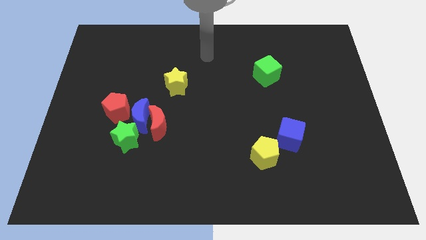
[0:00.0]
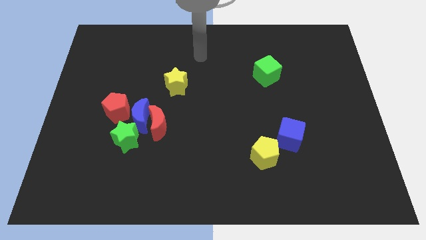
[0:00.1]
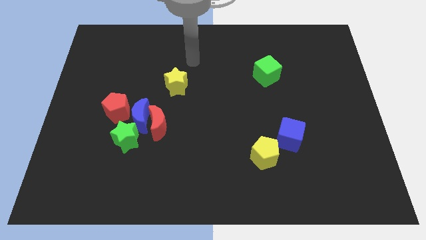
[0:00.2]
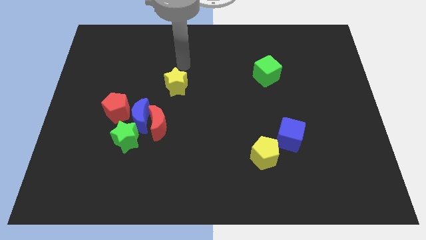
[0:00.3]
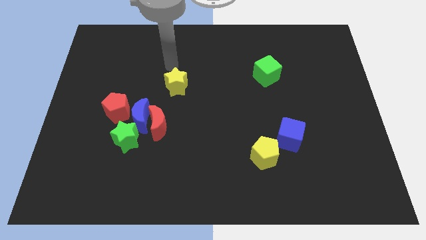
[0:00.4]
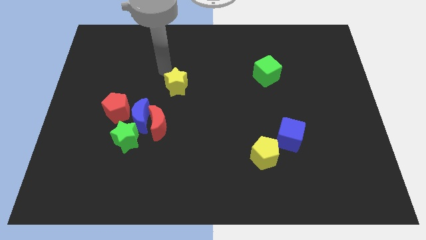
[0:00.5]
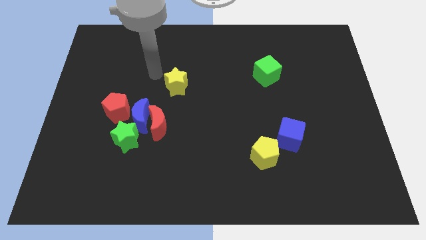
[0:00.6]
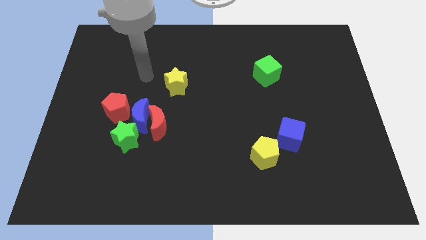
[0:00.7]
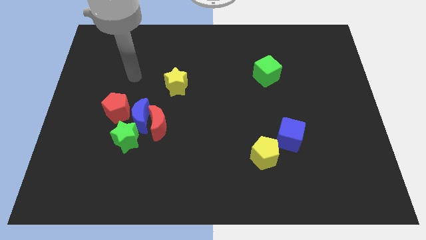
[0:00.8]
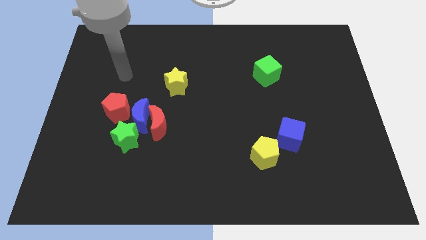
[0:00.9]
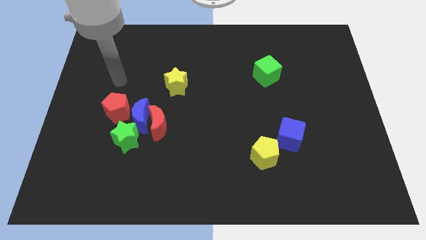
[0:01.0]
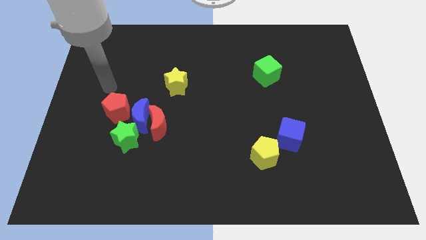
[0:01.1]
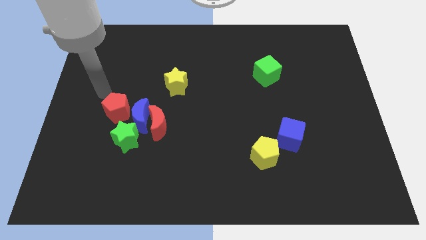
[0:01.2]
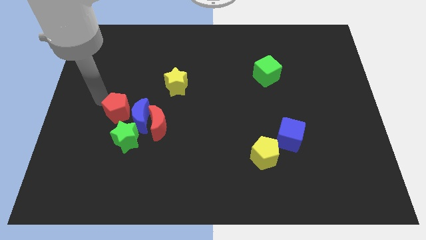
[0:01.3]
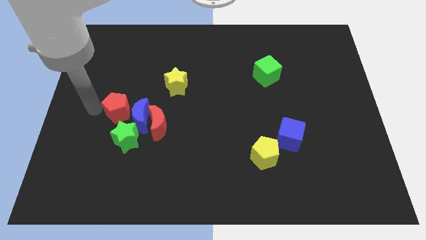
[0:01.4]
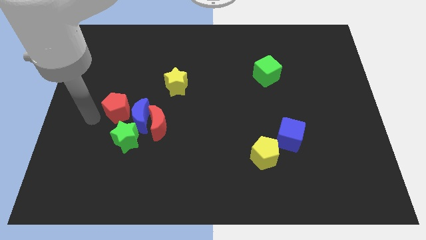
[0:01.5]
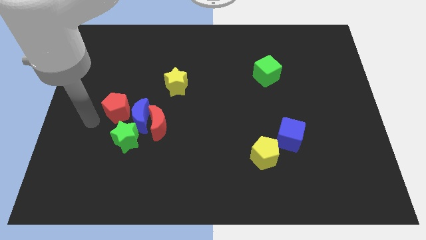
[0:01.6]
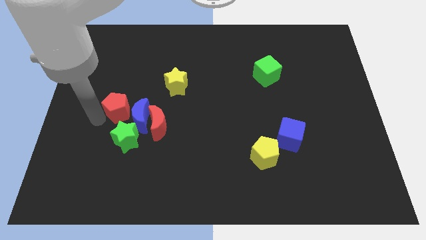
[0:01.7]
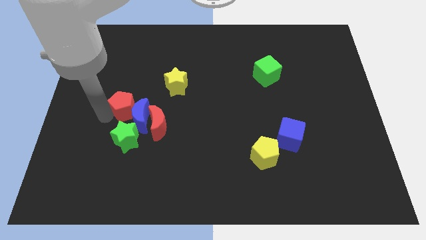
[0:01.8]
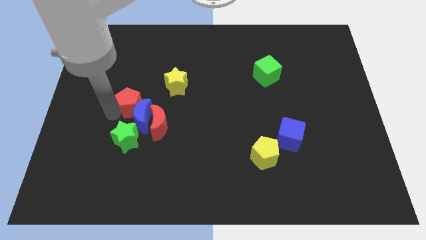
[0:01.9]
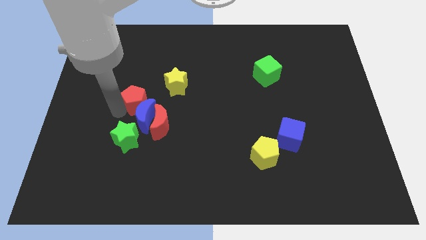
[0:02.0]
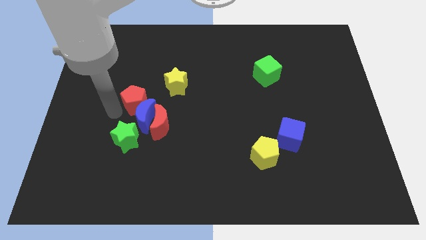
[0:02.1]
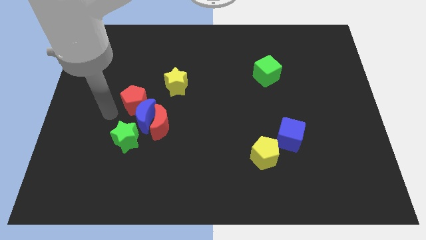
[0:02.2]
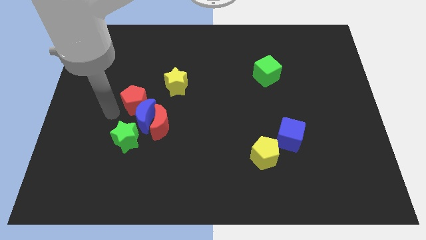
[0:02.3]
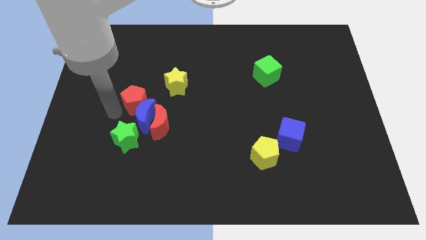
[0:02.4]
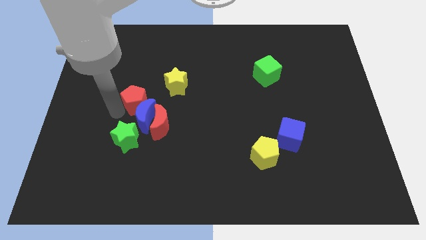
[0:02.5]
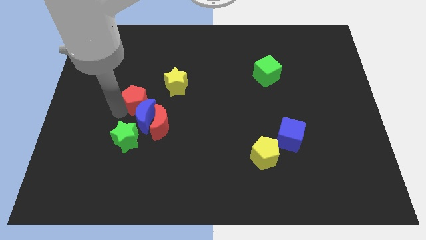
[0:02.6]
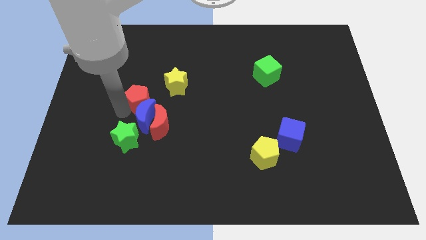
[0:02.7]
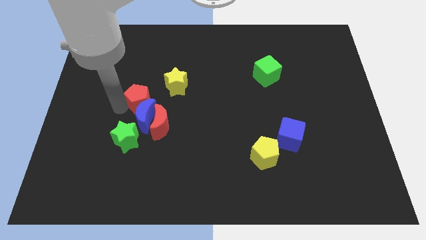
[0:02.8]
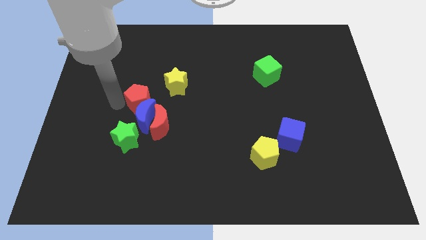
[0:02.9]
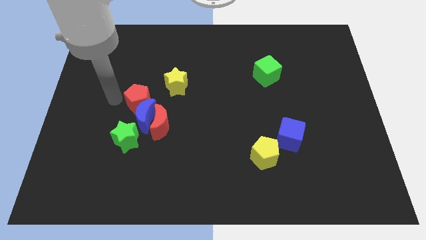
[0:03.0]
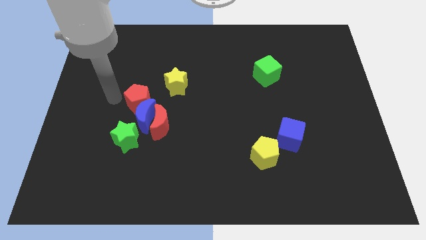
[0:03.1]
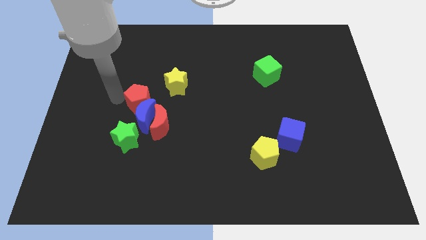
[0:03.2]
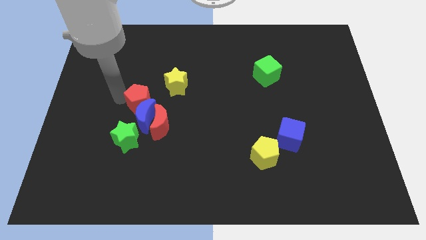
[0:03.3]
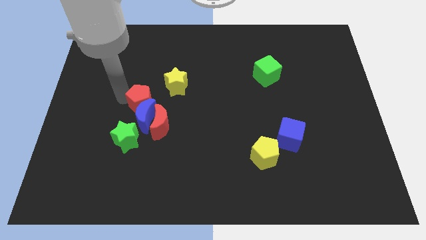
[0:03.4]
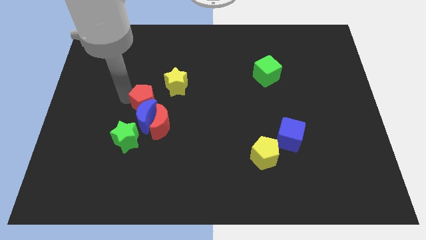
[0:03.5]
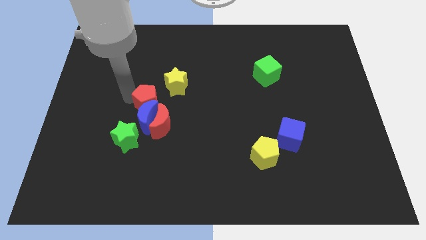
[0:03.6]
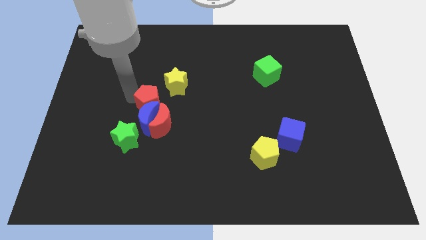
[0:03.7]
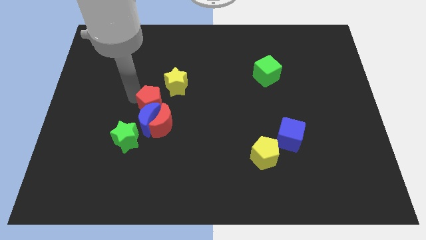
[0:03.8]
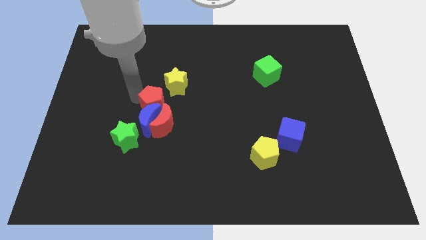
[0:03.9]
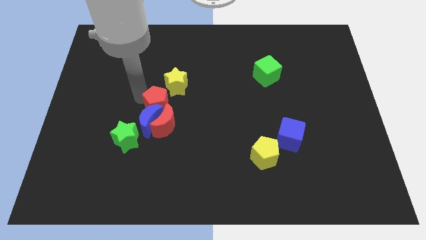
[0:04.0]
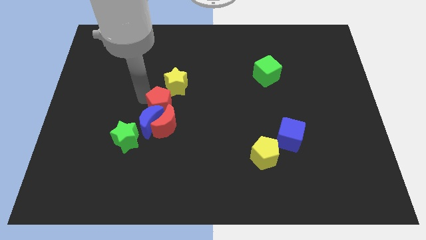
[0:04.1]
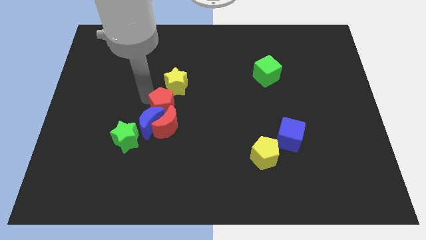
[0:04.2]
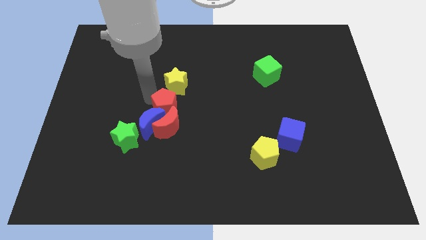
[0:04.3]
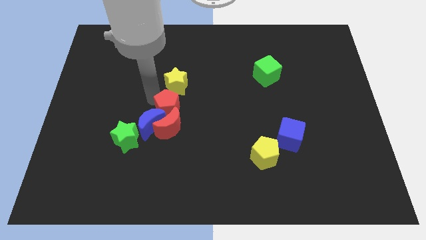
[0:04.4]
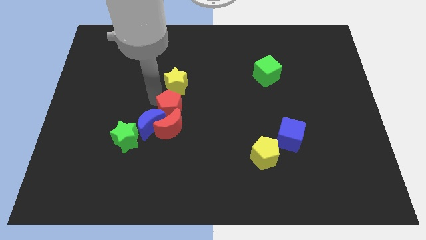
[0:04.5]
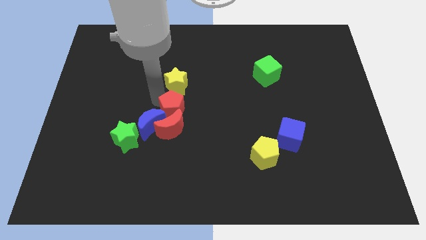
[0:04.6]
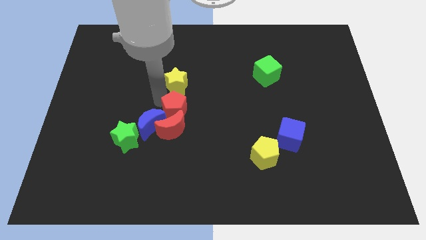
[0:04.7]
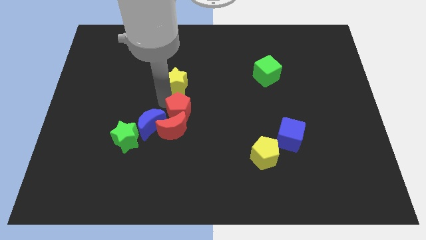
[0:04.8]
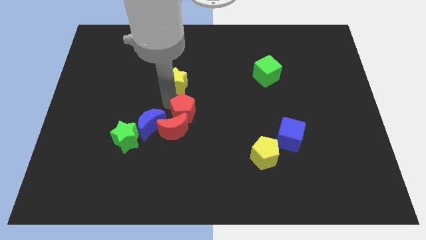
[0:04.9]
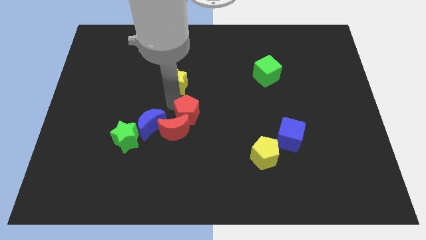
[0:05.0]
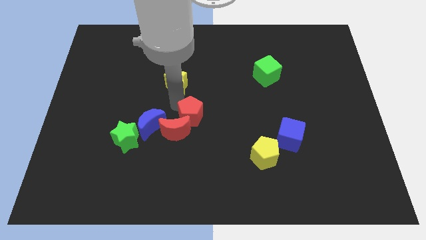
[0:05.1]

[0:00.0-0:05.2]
put the red pentagon right of the red moon

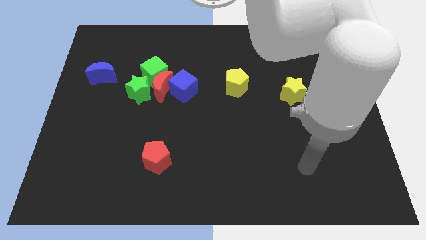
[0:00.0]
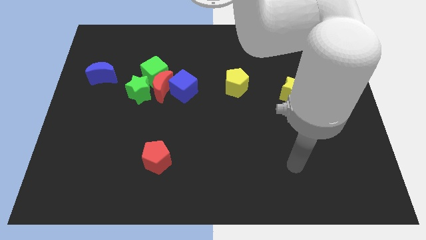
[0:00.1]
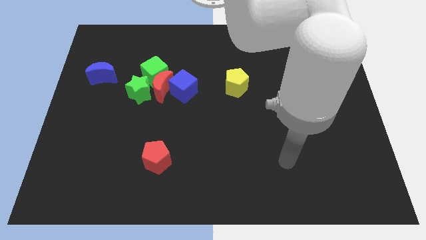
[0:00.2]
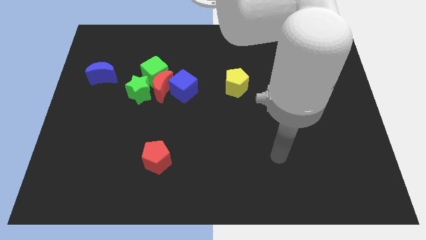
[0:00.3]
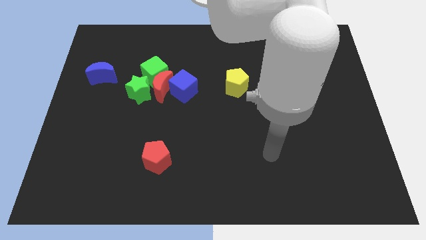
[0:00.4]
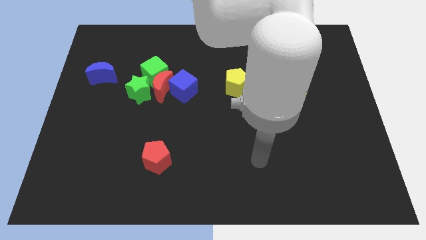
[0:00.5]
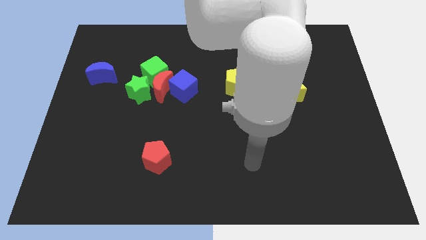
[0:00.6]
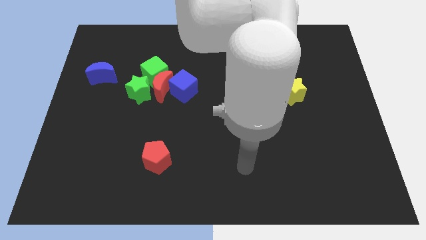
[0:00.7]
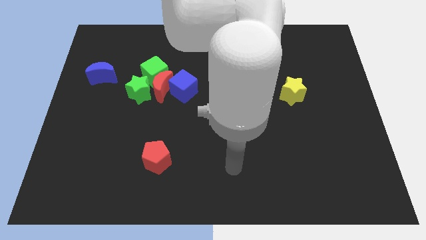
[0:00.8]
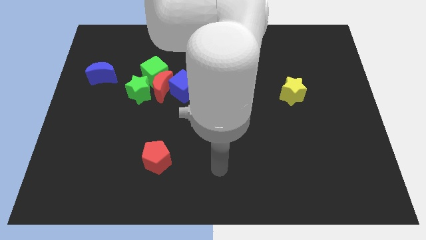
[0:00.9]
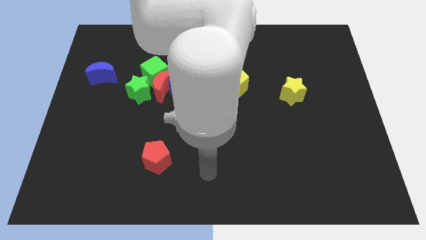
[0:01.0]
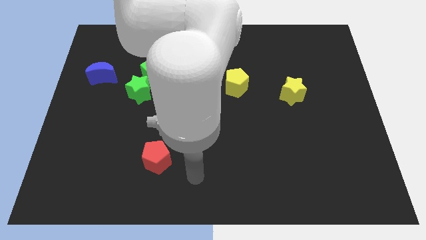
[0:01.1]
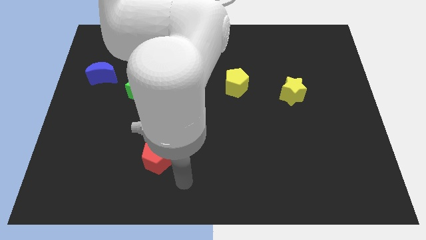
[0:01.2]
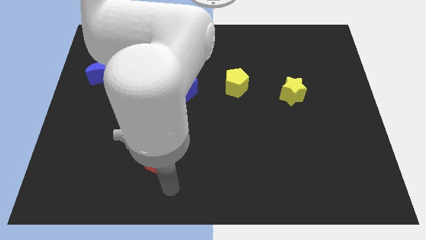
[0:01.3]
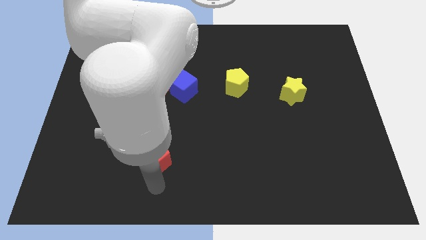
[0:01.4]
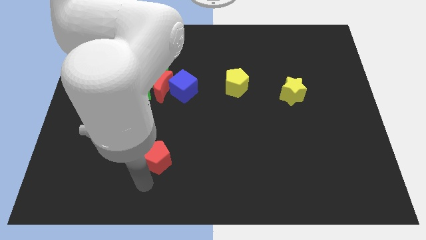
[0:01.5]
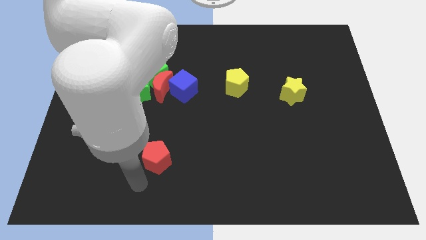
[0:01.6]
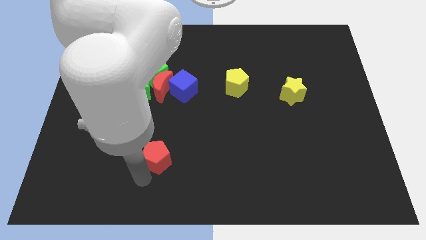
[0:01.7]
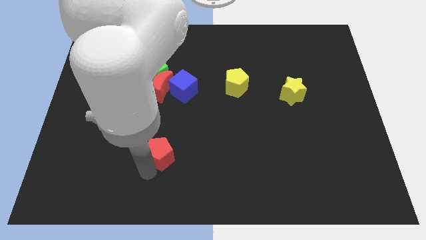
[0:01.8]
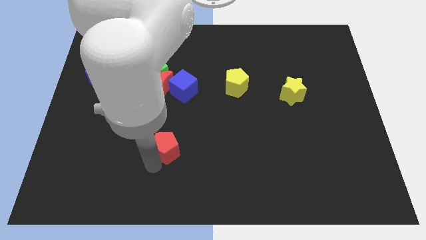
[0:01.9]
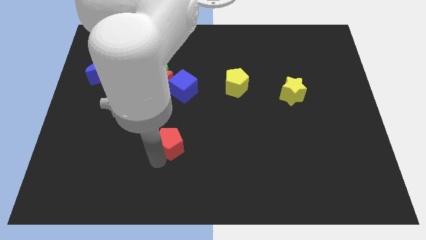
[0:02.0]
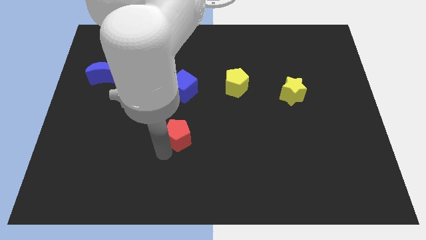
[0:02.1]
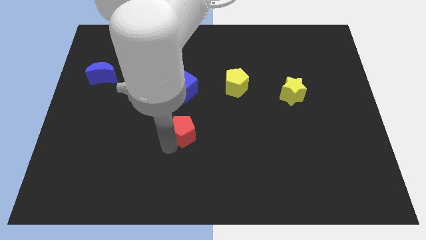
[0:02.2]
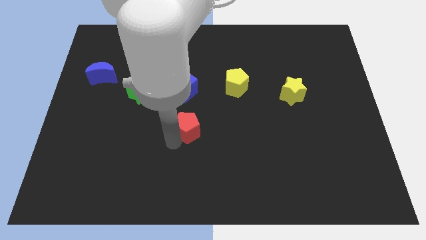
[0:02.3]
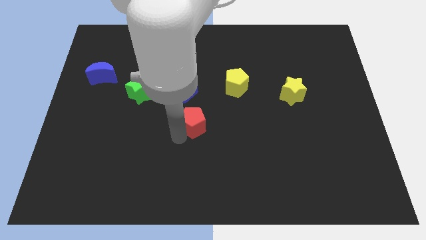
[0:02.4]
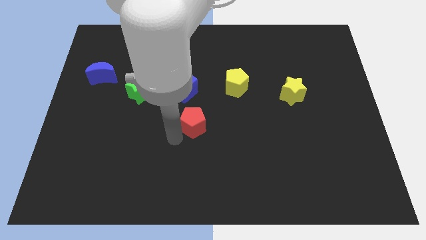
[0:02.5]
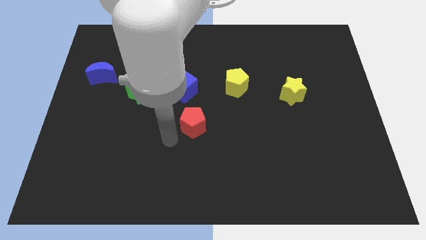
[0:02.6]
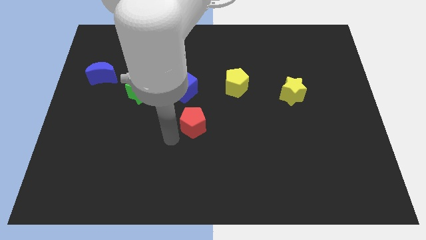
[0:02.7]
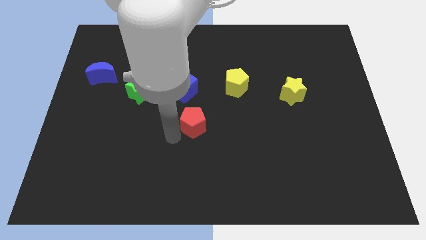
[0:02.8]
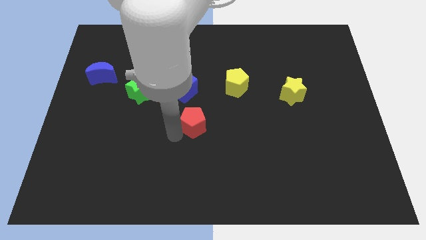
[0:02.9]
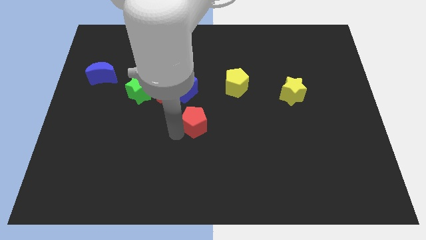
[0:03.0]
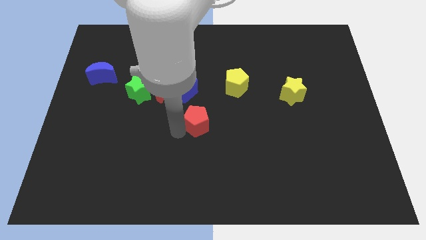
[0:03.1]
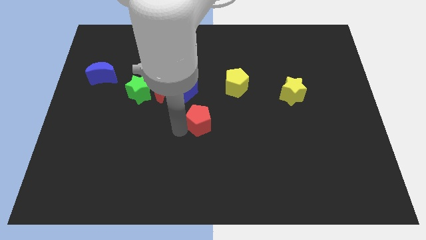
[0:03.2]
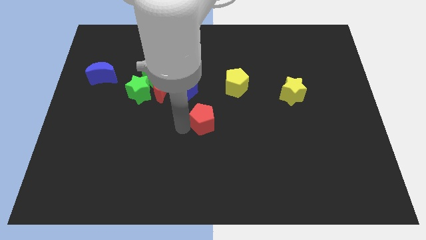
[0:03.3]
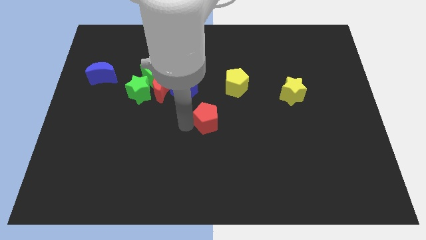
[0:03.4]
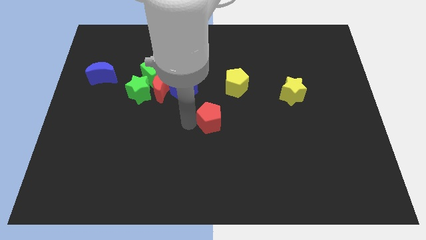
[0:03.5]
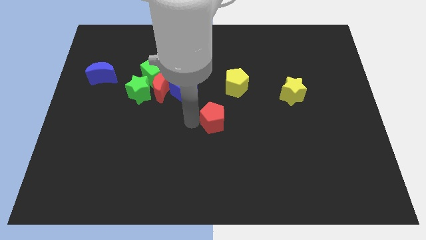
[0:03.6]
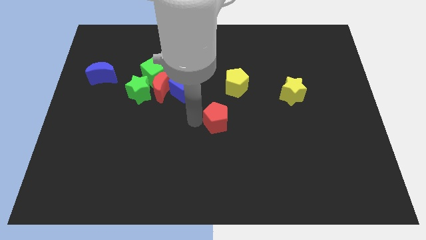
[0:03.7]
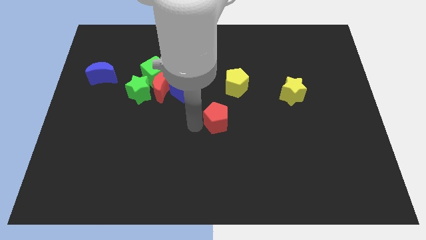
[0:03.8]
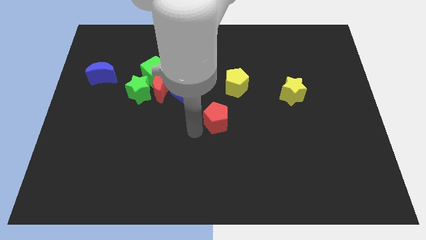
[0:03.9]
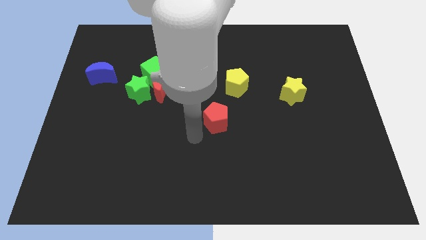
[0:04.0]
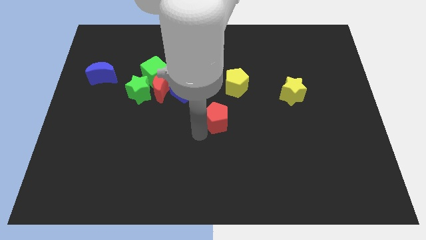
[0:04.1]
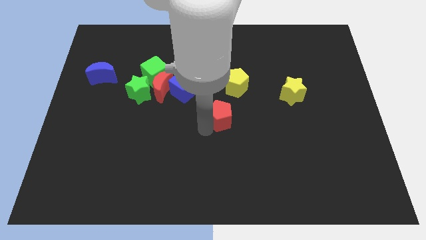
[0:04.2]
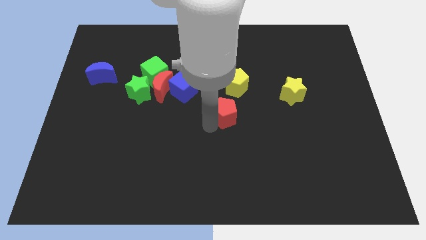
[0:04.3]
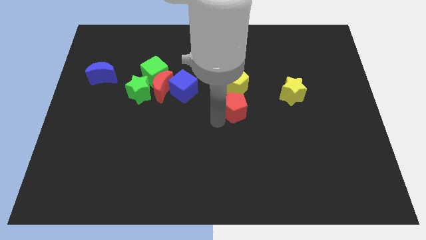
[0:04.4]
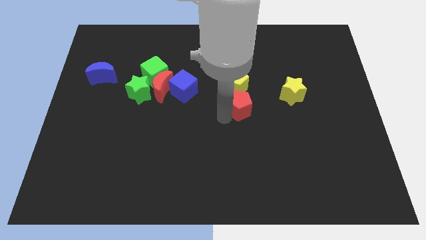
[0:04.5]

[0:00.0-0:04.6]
push the red pentagon to the left side of the yellow star
